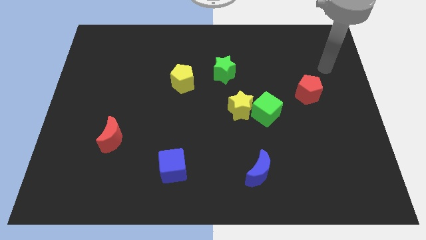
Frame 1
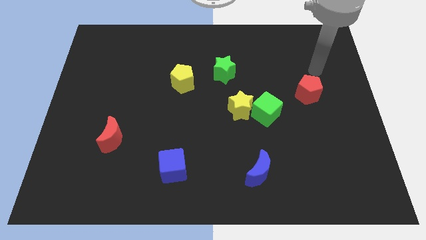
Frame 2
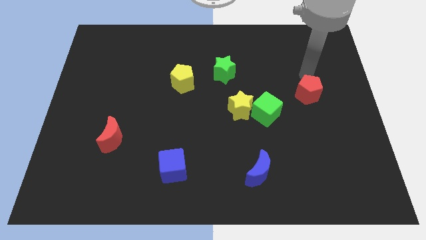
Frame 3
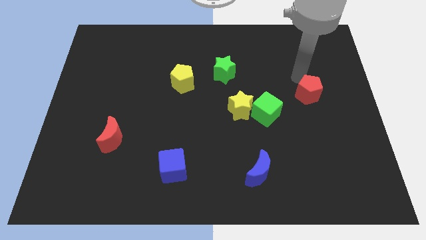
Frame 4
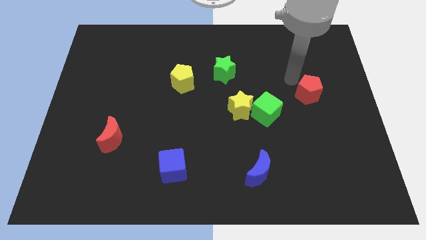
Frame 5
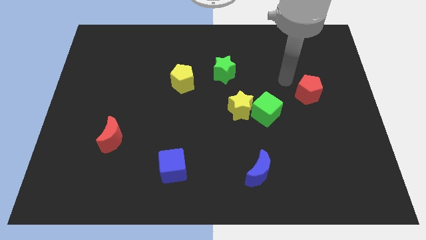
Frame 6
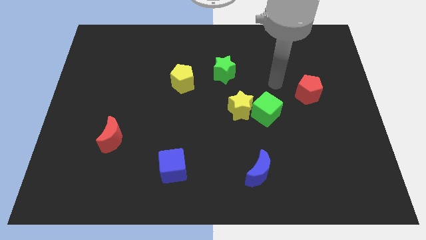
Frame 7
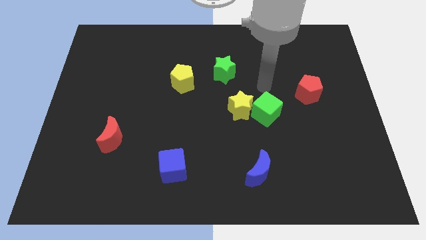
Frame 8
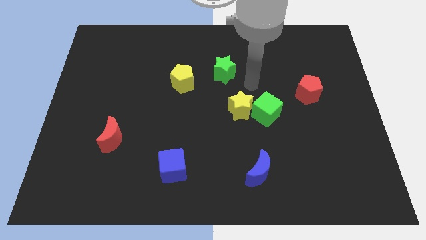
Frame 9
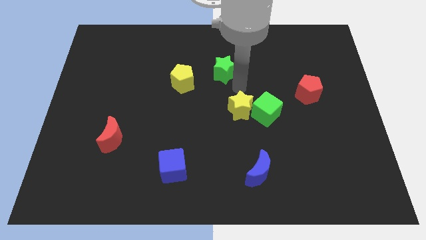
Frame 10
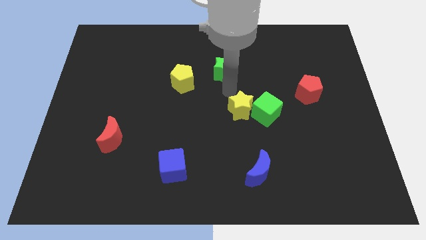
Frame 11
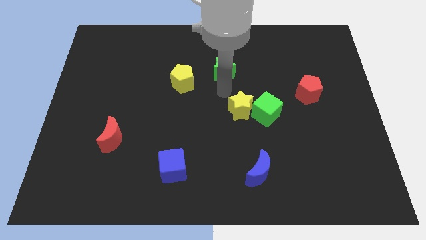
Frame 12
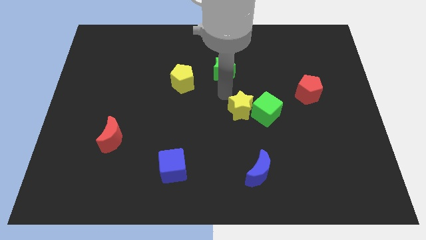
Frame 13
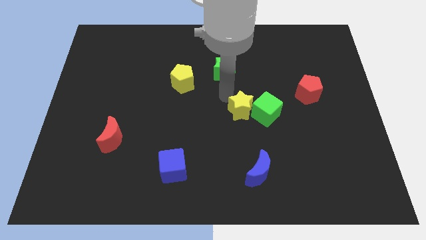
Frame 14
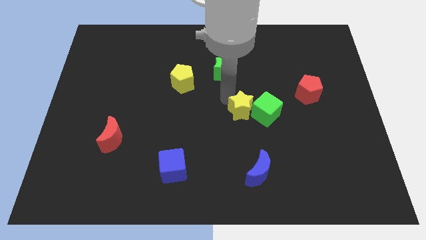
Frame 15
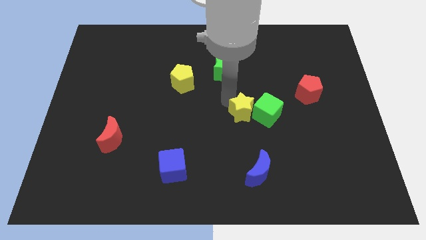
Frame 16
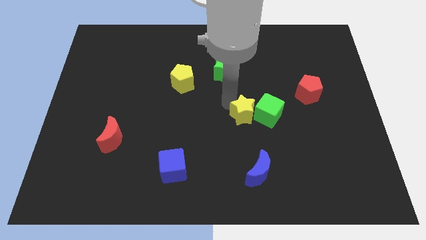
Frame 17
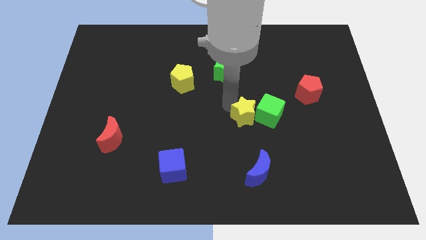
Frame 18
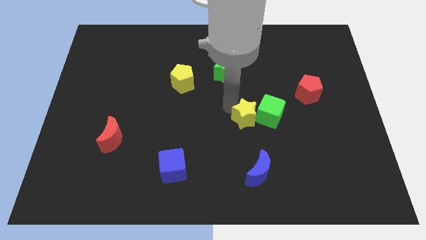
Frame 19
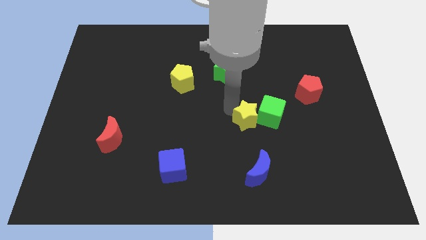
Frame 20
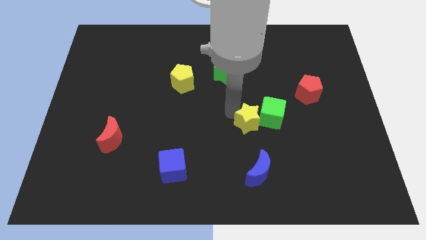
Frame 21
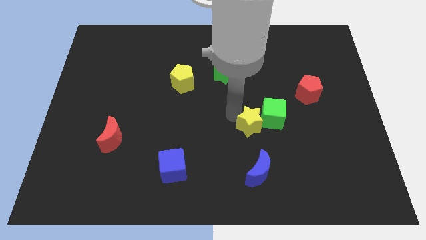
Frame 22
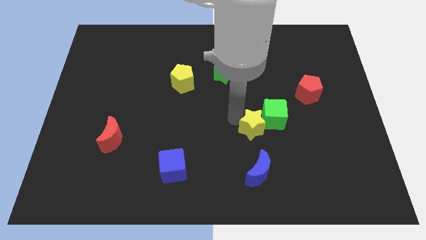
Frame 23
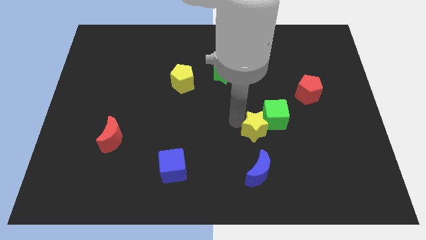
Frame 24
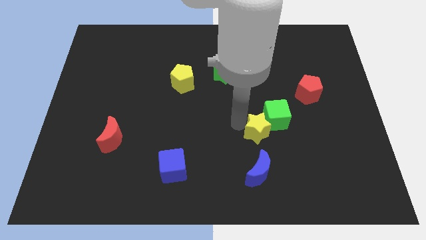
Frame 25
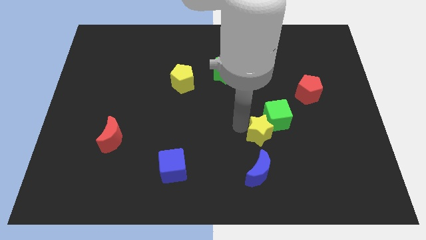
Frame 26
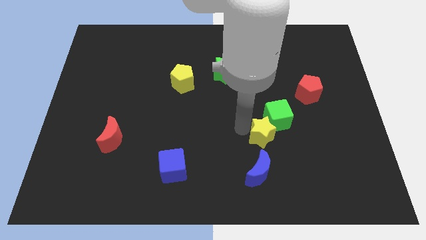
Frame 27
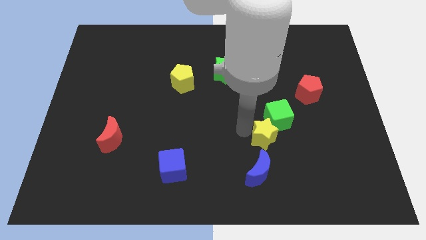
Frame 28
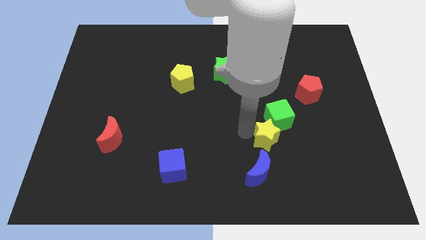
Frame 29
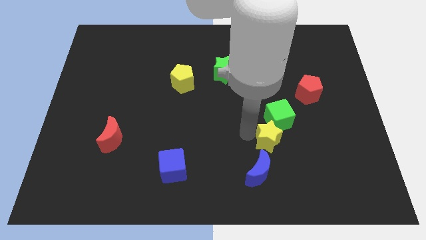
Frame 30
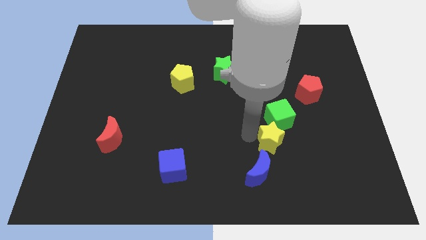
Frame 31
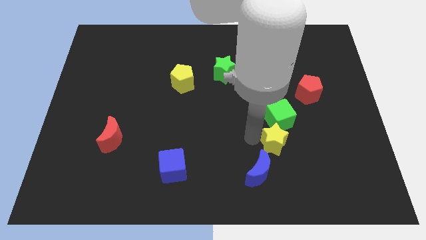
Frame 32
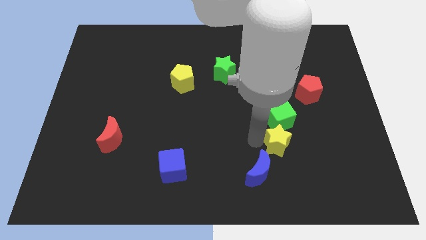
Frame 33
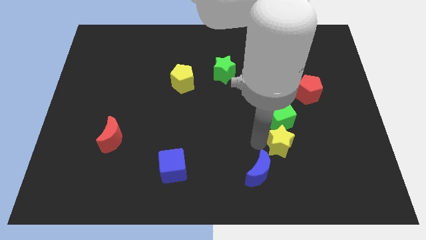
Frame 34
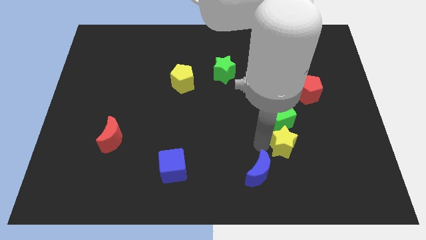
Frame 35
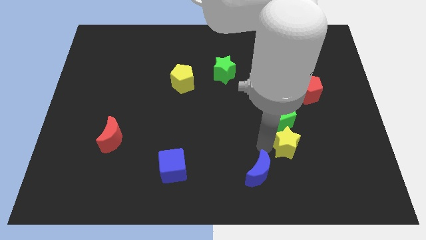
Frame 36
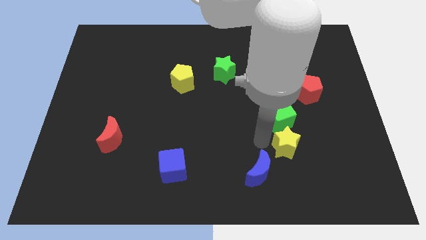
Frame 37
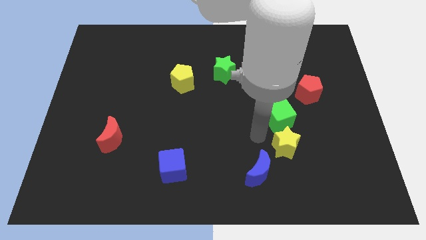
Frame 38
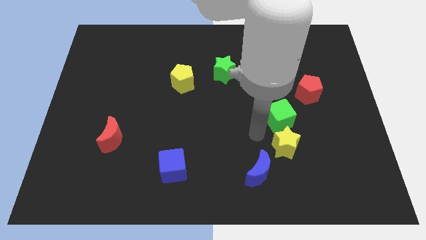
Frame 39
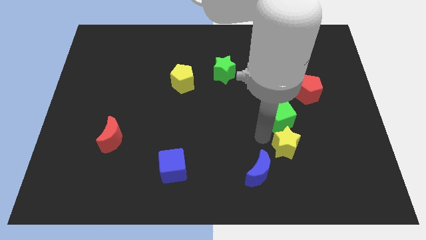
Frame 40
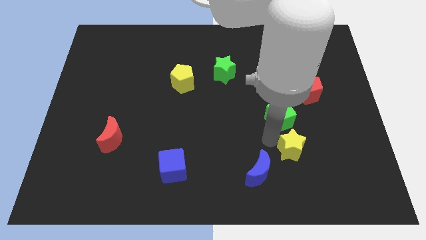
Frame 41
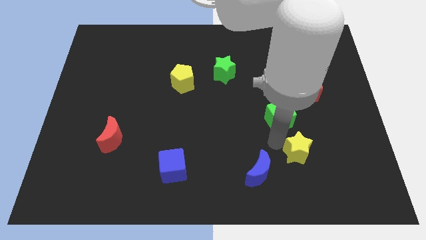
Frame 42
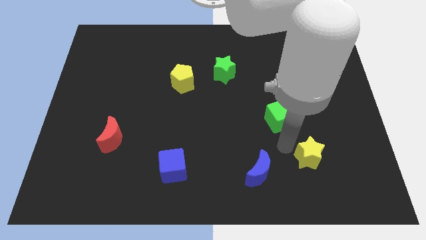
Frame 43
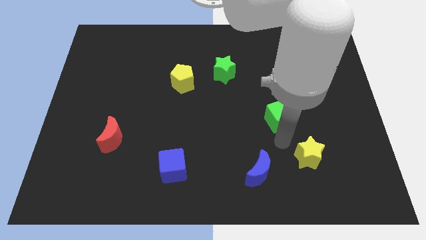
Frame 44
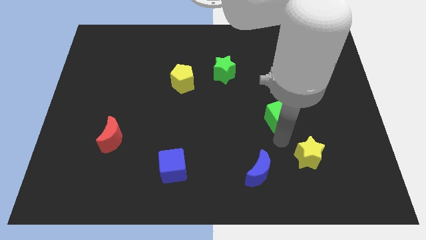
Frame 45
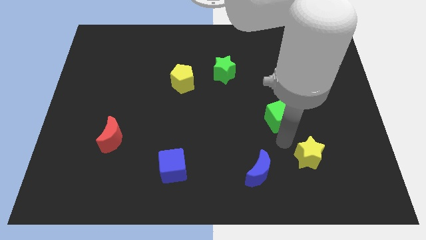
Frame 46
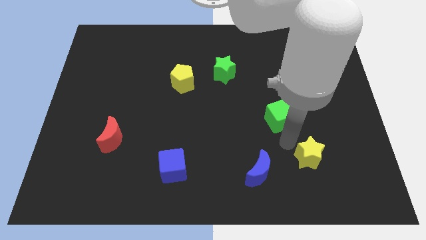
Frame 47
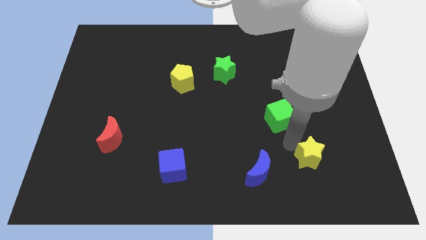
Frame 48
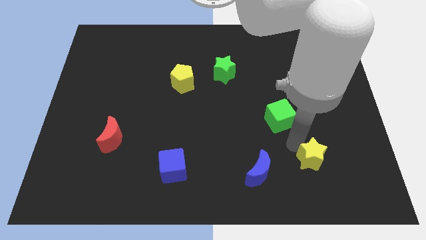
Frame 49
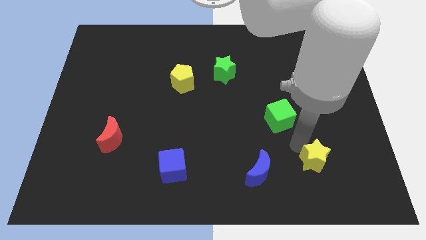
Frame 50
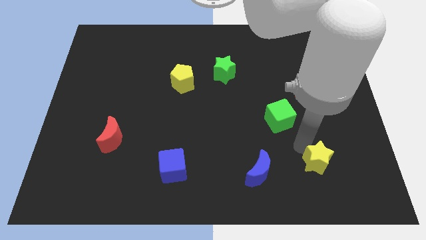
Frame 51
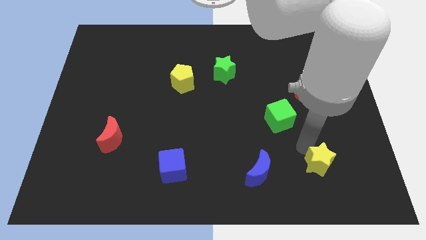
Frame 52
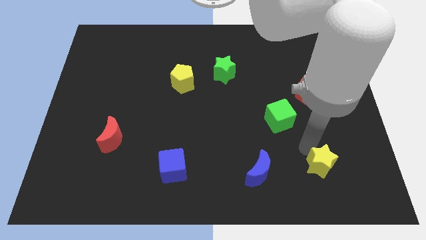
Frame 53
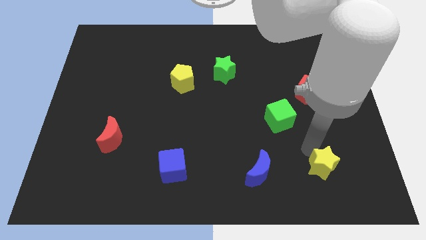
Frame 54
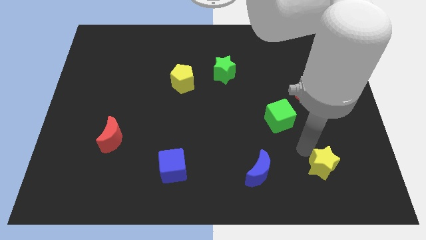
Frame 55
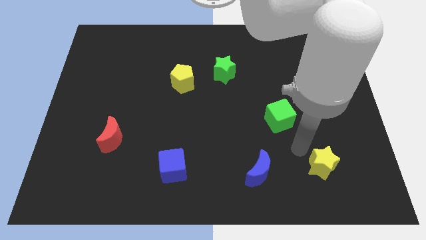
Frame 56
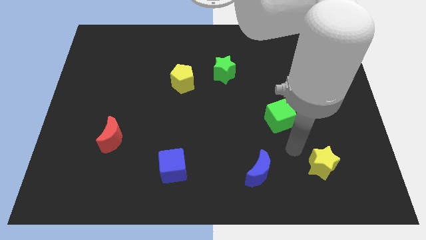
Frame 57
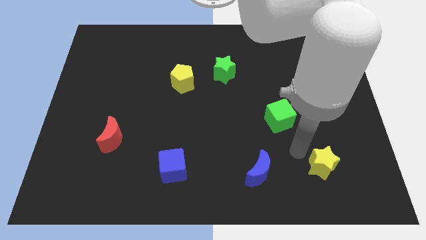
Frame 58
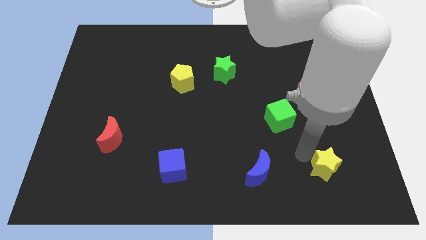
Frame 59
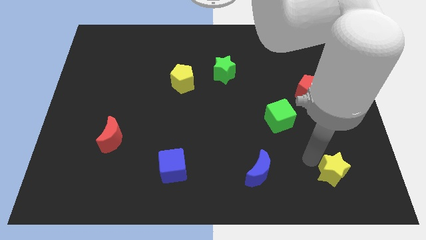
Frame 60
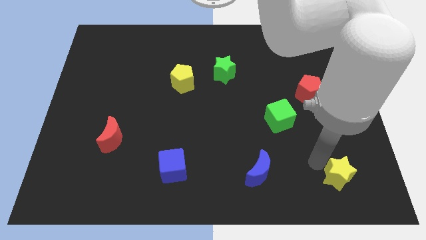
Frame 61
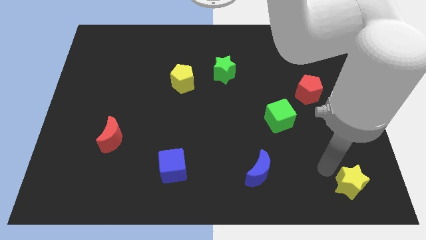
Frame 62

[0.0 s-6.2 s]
push the yellow star to the lower right corner

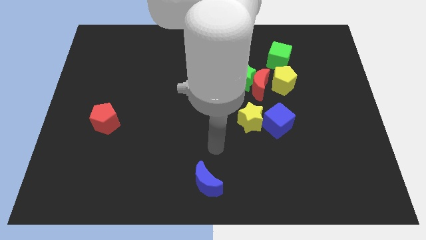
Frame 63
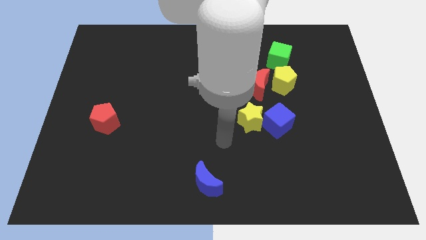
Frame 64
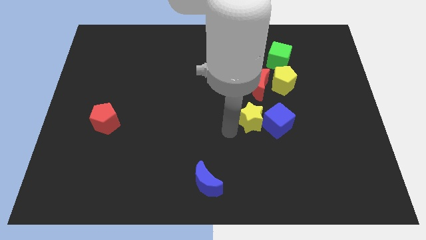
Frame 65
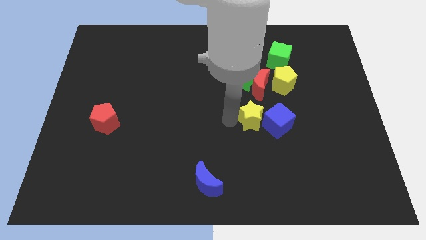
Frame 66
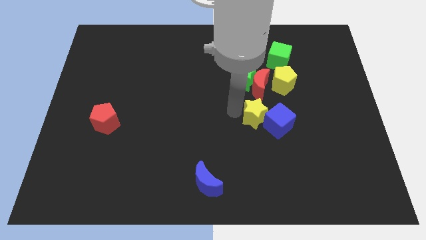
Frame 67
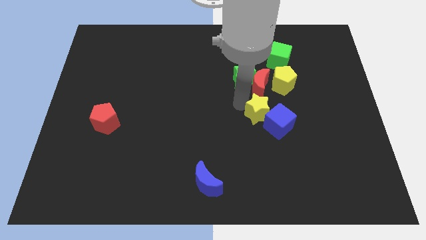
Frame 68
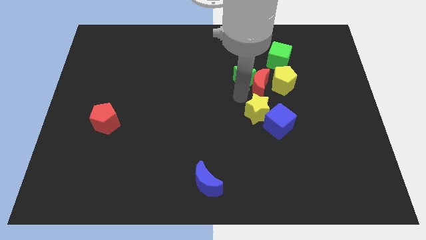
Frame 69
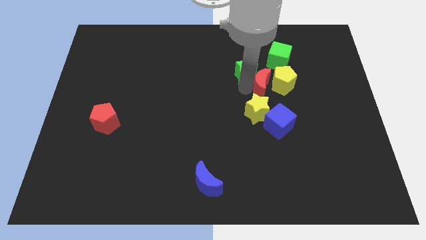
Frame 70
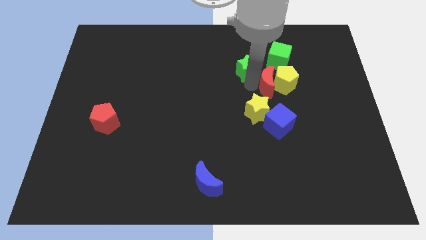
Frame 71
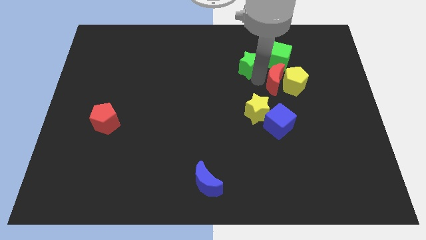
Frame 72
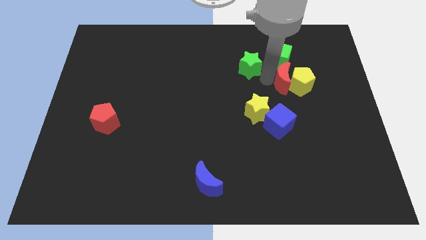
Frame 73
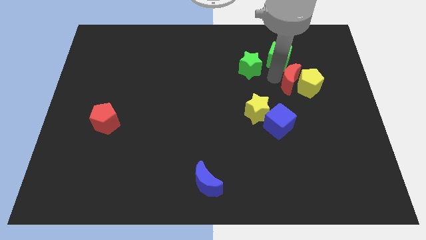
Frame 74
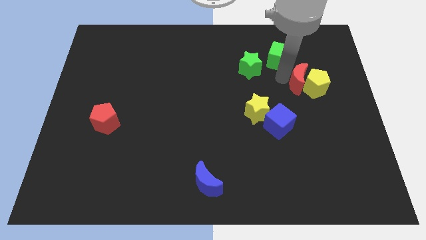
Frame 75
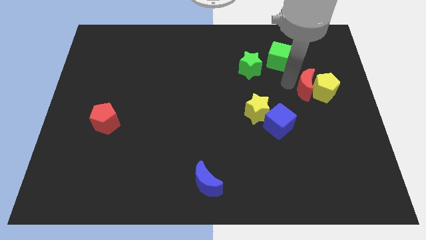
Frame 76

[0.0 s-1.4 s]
slide the yellow pentagon to the right side of the board
